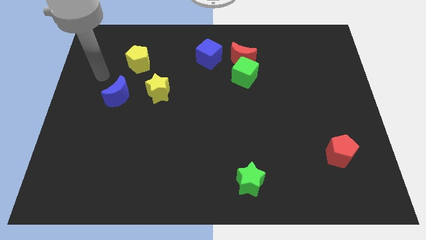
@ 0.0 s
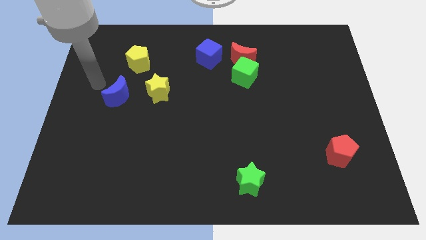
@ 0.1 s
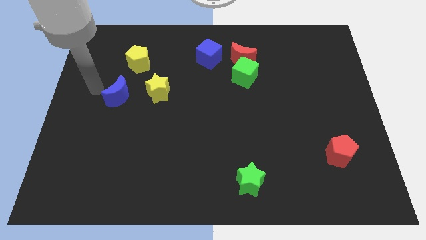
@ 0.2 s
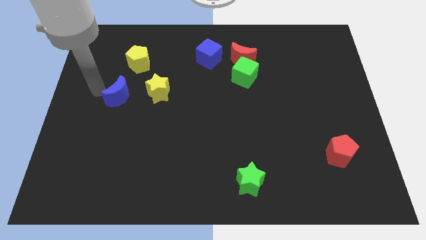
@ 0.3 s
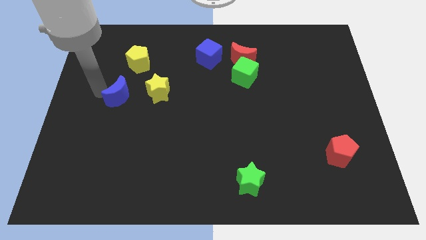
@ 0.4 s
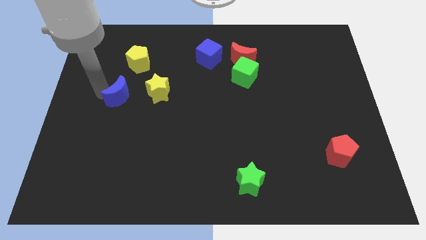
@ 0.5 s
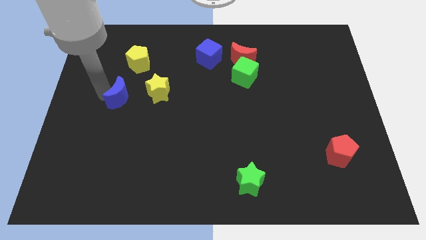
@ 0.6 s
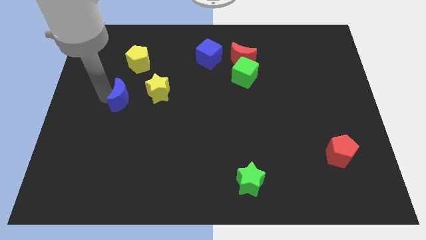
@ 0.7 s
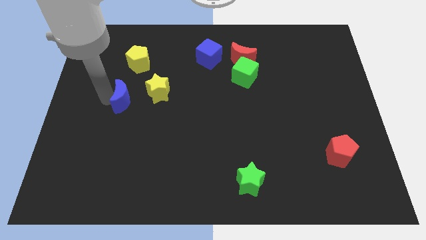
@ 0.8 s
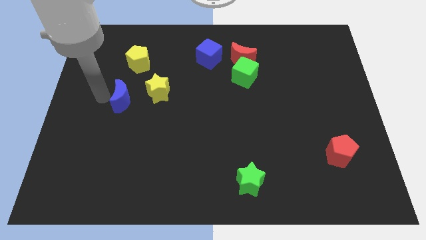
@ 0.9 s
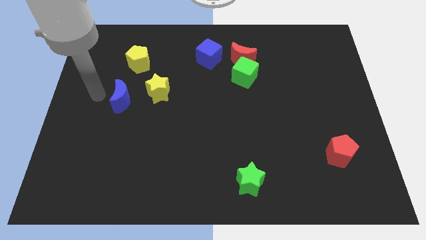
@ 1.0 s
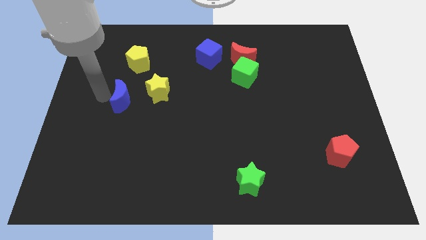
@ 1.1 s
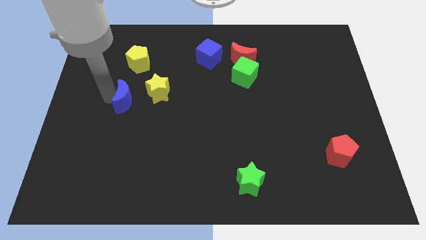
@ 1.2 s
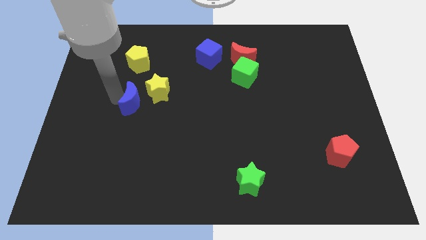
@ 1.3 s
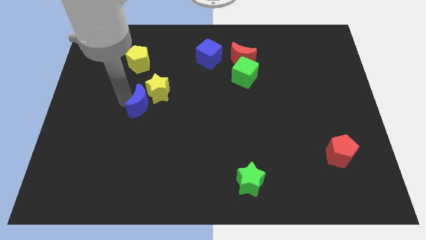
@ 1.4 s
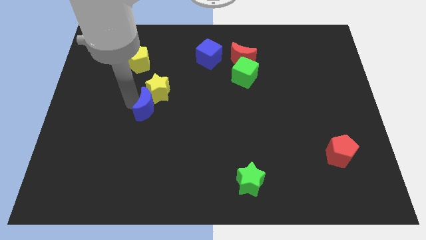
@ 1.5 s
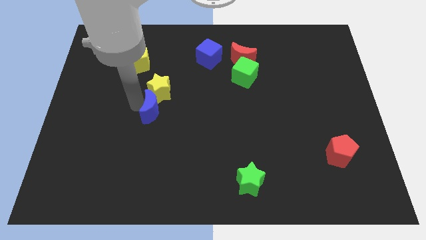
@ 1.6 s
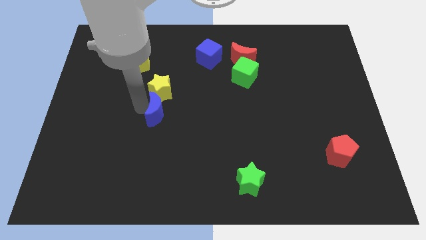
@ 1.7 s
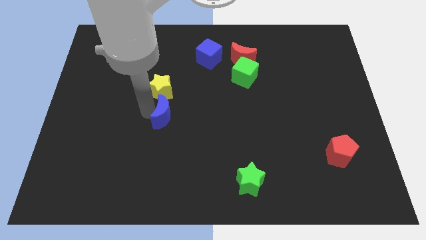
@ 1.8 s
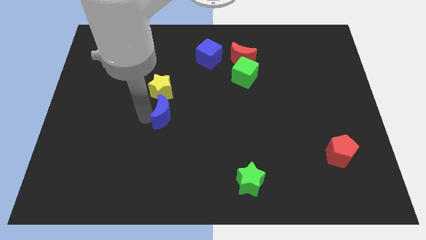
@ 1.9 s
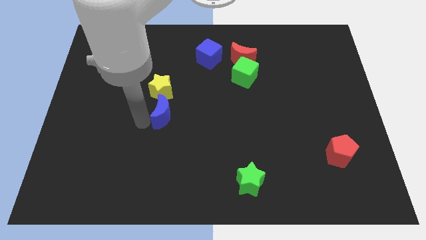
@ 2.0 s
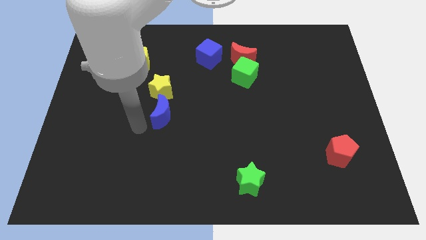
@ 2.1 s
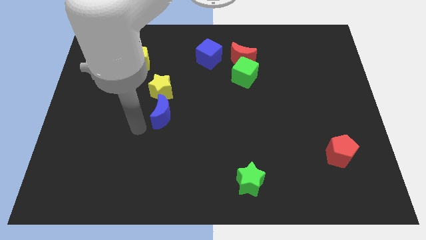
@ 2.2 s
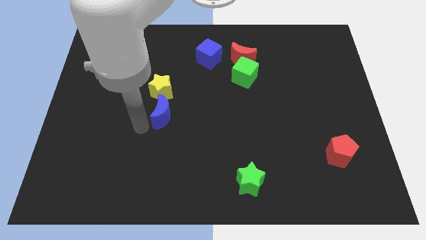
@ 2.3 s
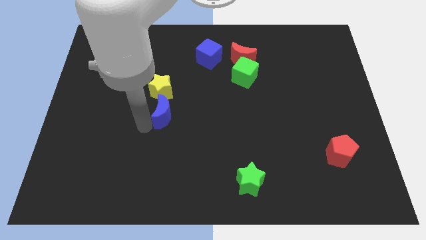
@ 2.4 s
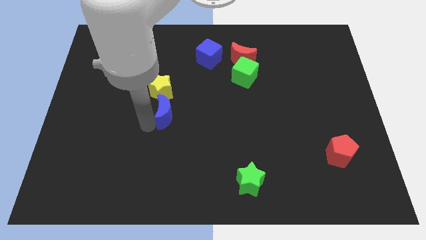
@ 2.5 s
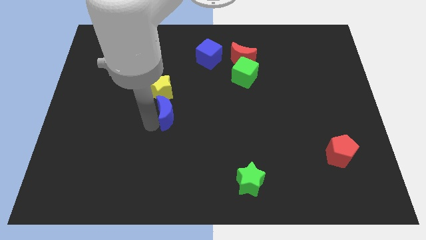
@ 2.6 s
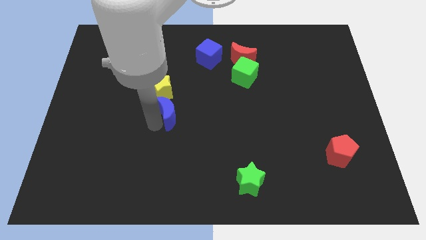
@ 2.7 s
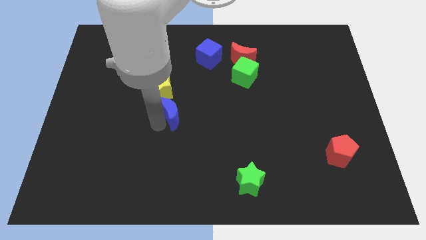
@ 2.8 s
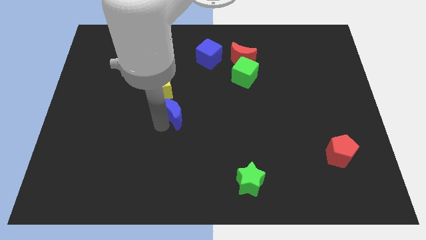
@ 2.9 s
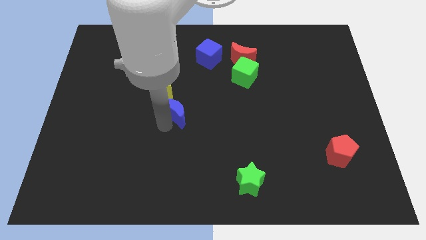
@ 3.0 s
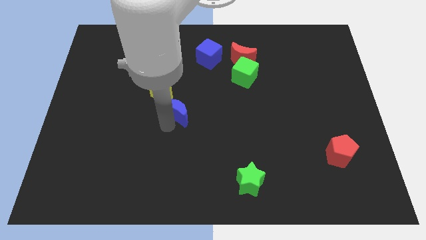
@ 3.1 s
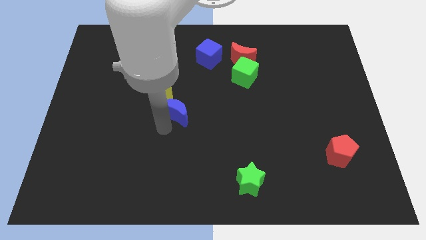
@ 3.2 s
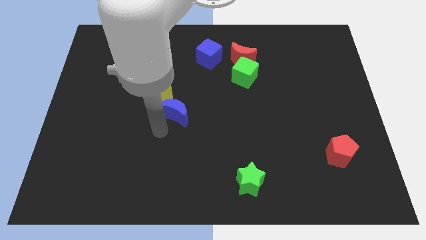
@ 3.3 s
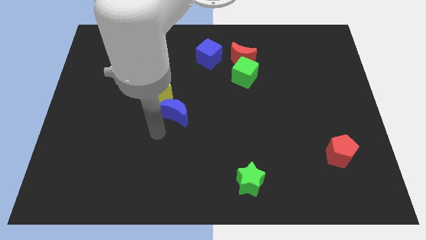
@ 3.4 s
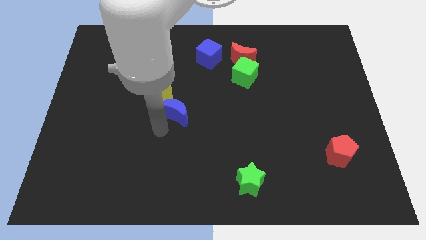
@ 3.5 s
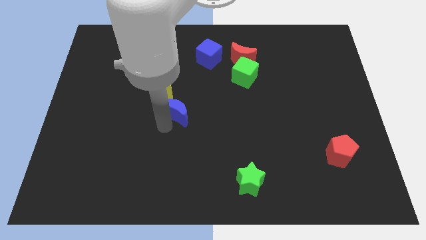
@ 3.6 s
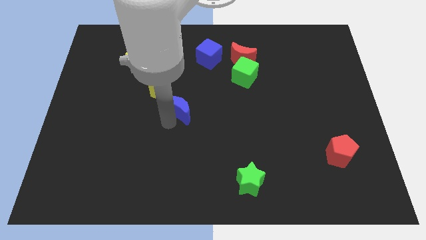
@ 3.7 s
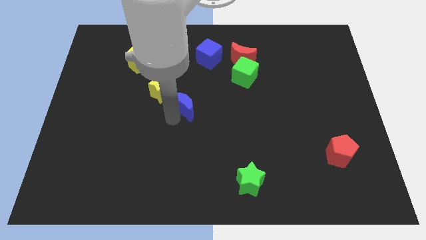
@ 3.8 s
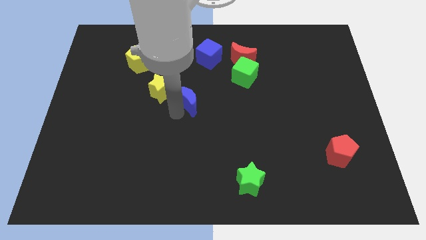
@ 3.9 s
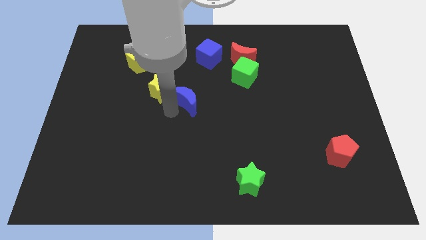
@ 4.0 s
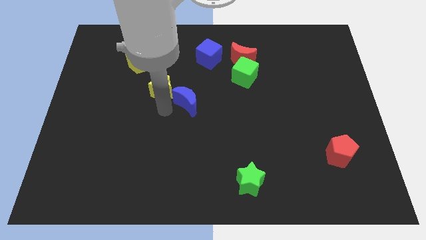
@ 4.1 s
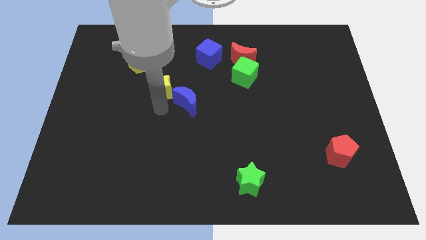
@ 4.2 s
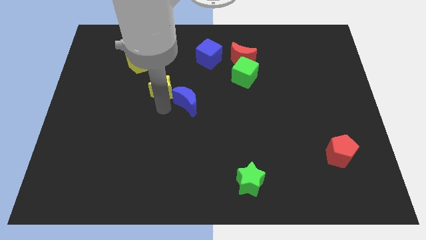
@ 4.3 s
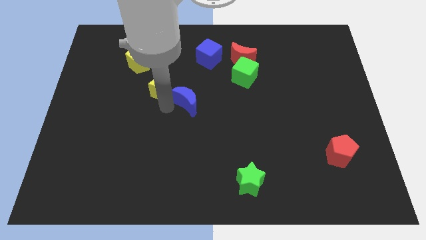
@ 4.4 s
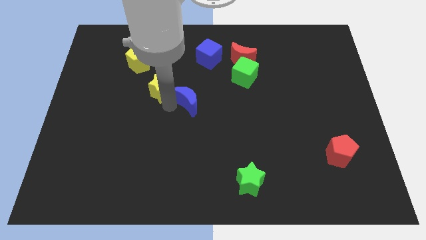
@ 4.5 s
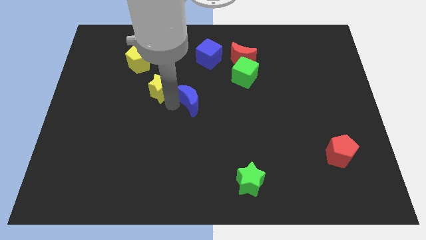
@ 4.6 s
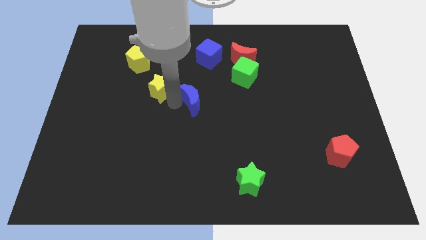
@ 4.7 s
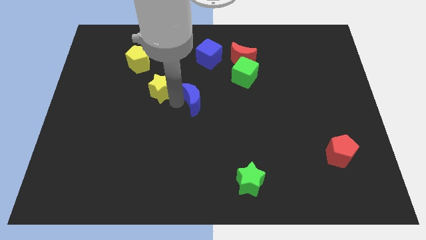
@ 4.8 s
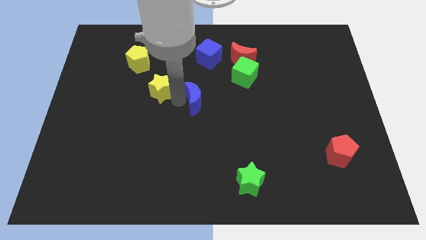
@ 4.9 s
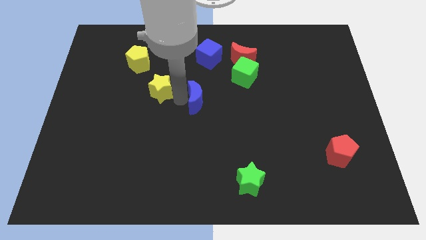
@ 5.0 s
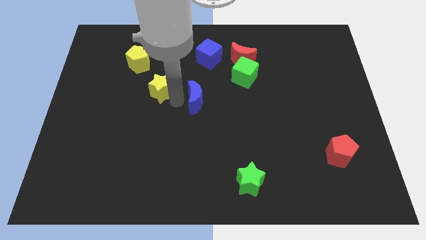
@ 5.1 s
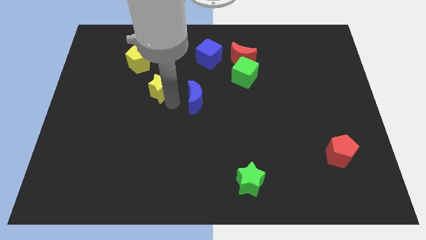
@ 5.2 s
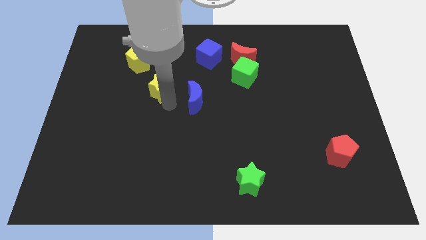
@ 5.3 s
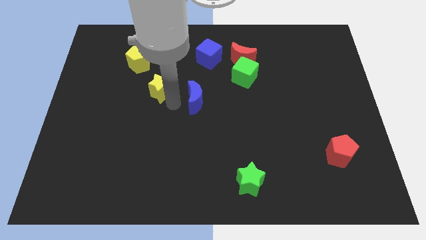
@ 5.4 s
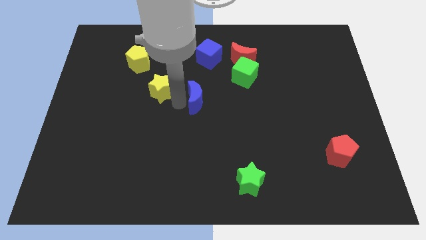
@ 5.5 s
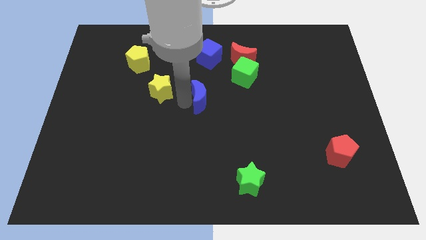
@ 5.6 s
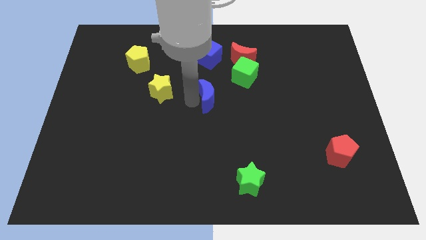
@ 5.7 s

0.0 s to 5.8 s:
slide the blue moon right

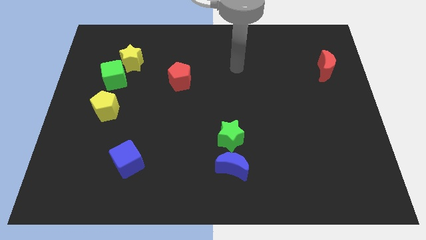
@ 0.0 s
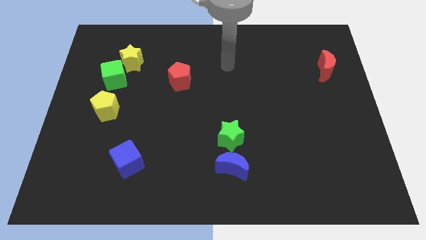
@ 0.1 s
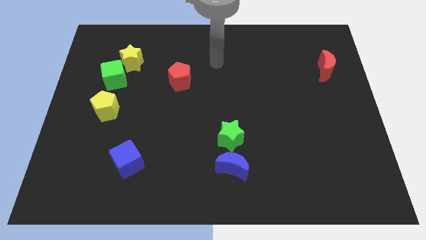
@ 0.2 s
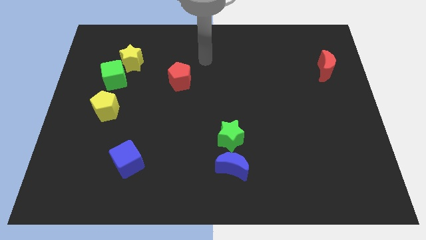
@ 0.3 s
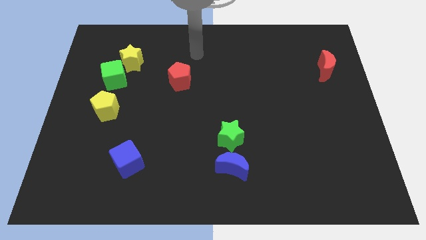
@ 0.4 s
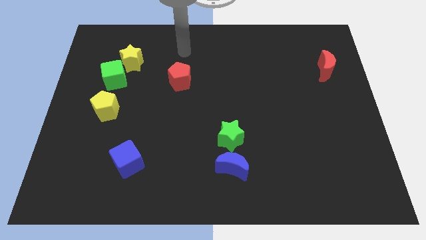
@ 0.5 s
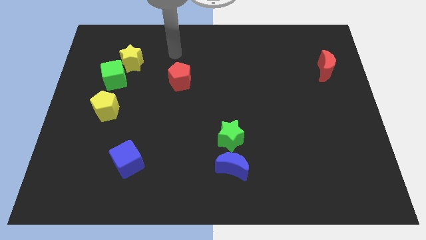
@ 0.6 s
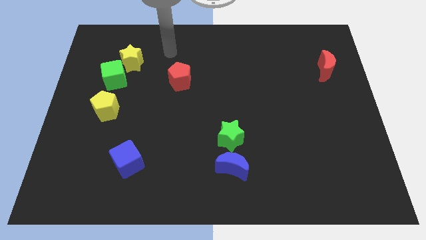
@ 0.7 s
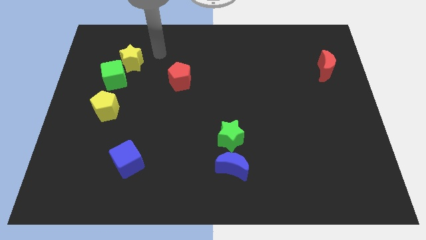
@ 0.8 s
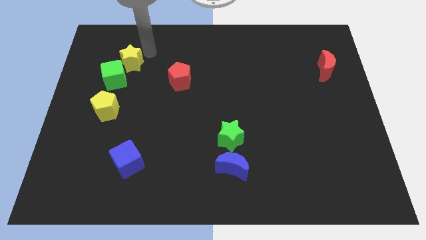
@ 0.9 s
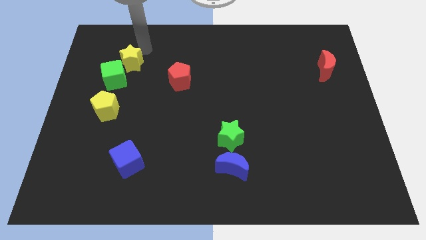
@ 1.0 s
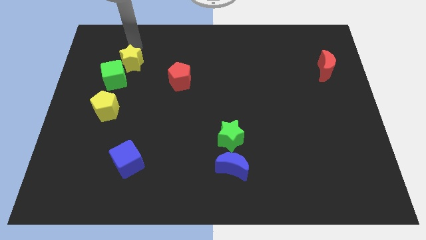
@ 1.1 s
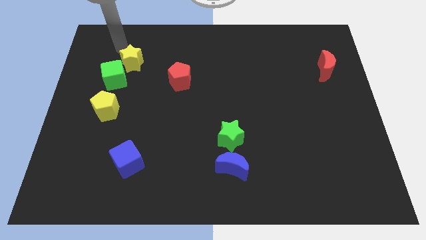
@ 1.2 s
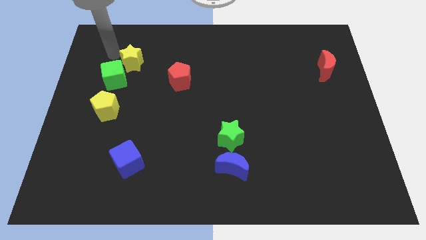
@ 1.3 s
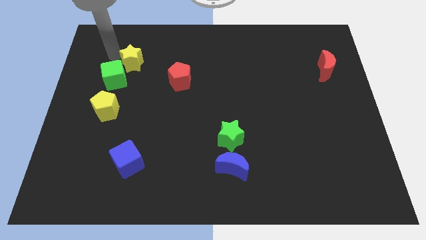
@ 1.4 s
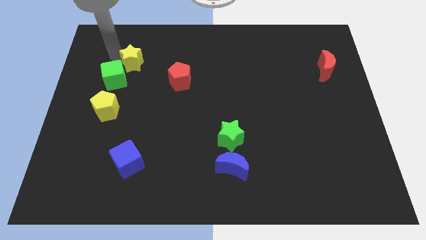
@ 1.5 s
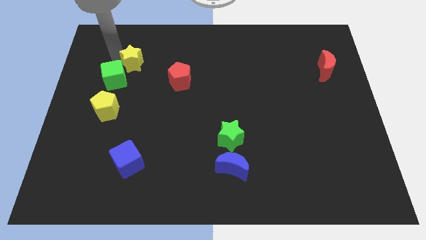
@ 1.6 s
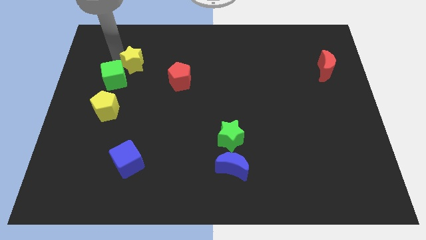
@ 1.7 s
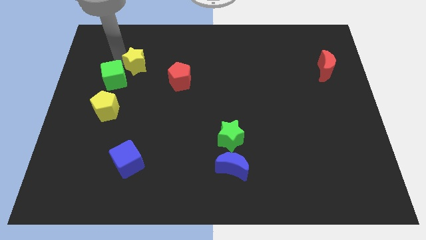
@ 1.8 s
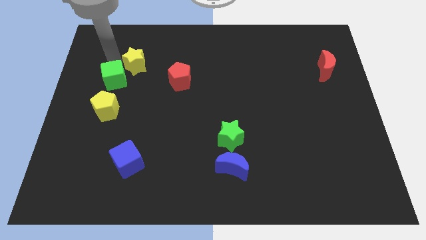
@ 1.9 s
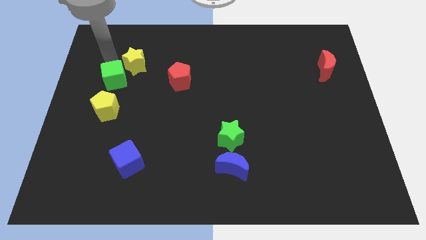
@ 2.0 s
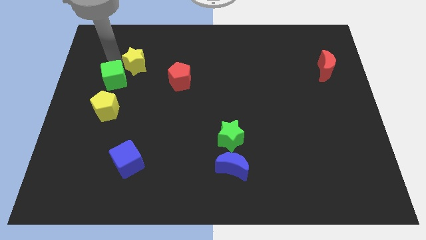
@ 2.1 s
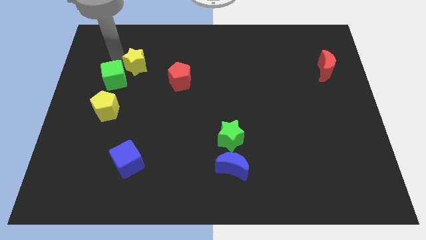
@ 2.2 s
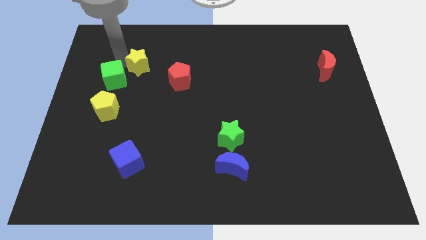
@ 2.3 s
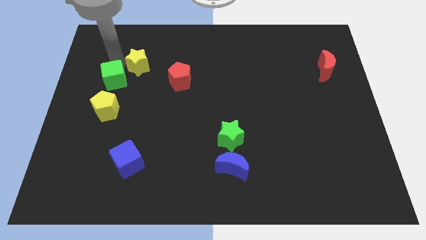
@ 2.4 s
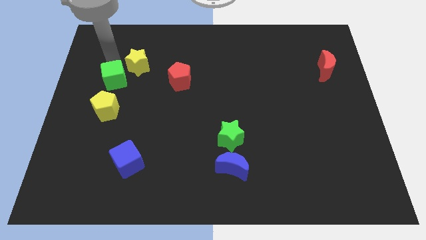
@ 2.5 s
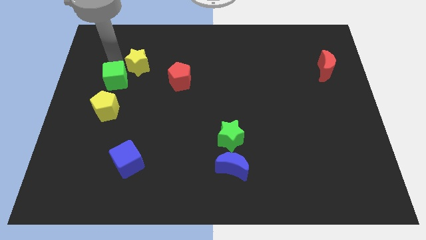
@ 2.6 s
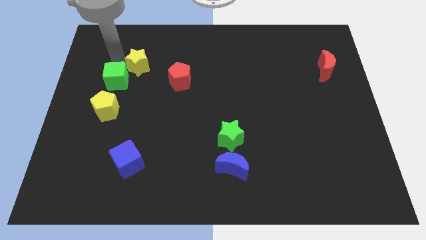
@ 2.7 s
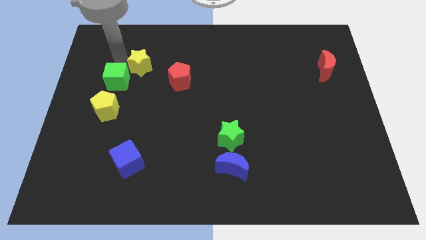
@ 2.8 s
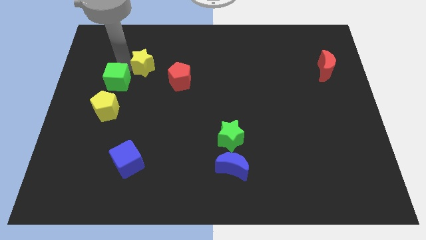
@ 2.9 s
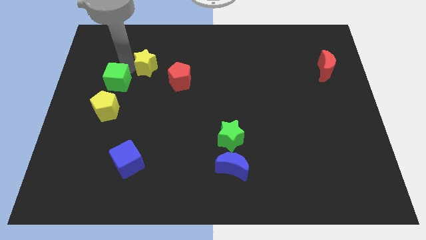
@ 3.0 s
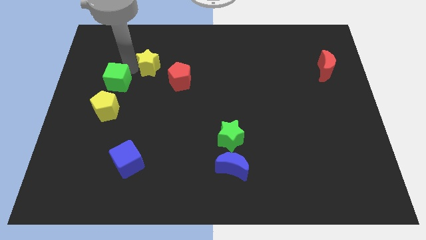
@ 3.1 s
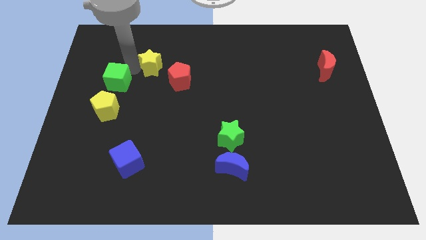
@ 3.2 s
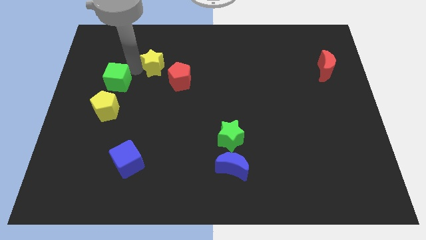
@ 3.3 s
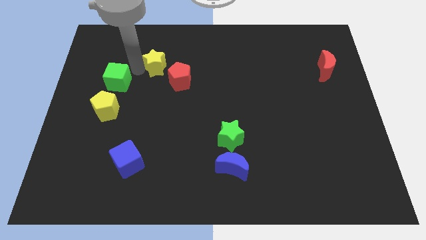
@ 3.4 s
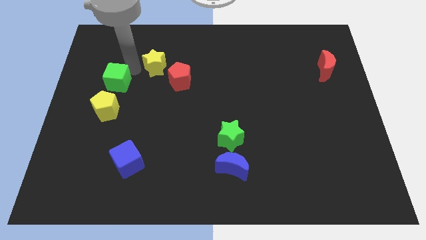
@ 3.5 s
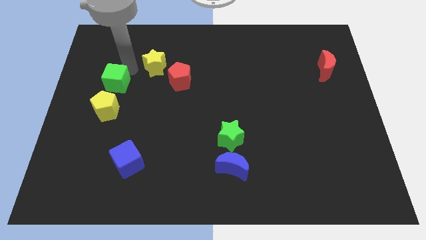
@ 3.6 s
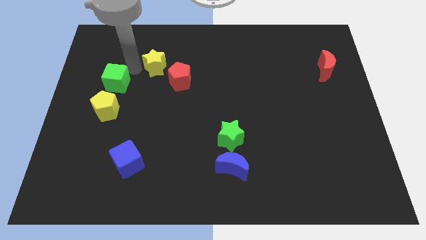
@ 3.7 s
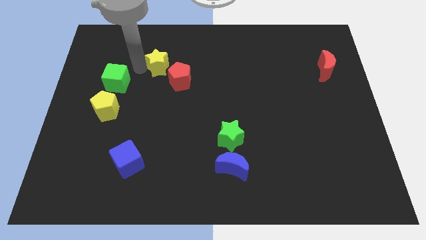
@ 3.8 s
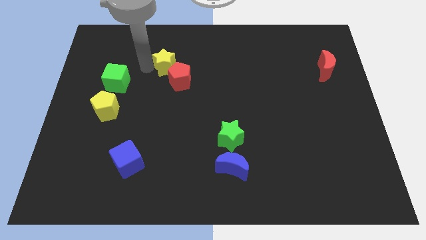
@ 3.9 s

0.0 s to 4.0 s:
slightly push the yellow star right
